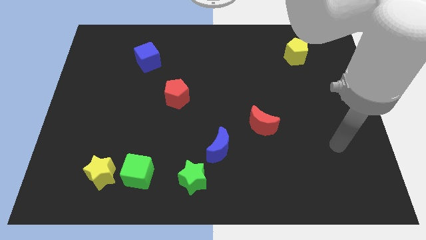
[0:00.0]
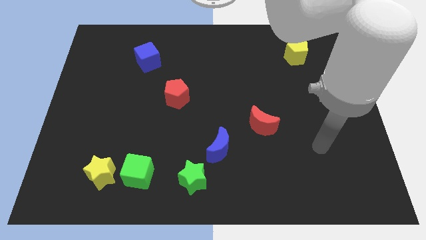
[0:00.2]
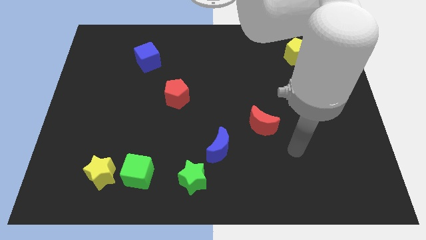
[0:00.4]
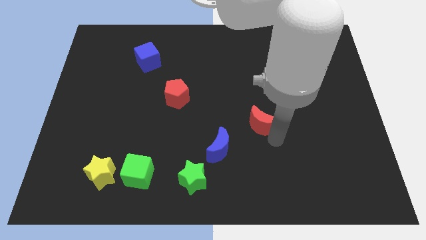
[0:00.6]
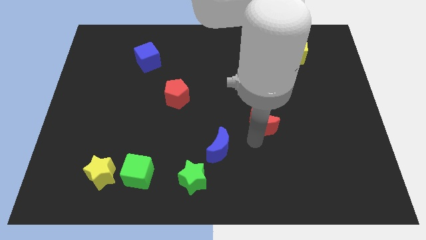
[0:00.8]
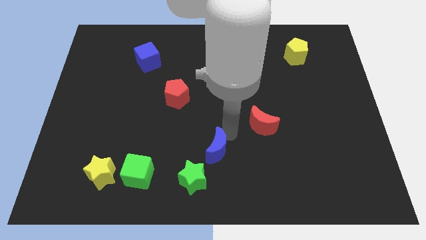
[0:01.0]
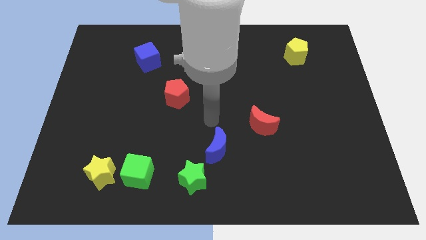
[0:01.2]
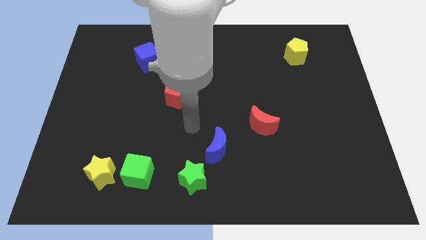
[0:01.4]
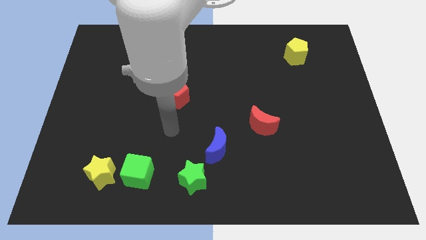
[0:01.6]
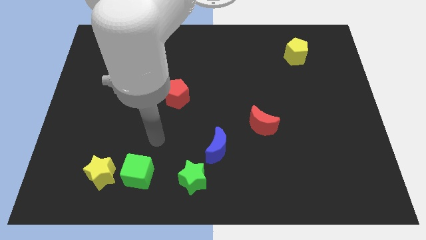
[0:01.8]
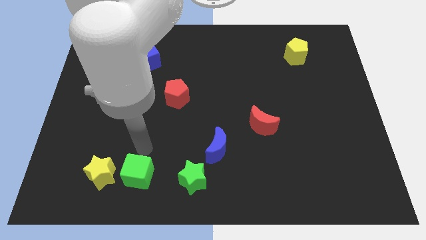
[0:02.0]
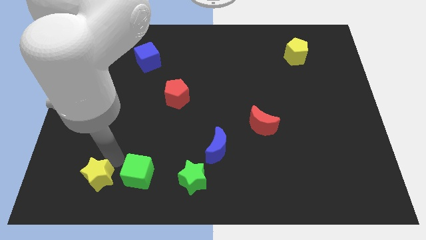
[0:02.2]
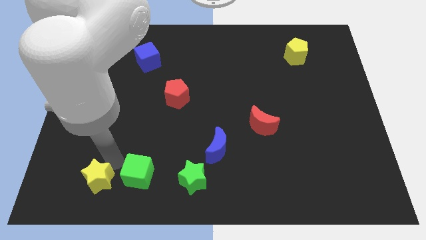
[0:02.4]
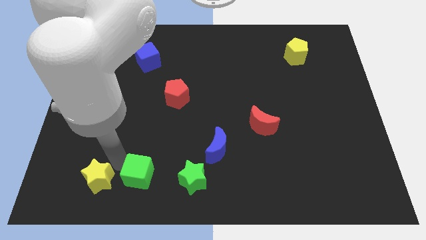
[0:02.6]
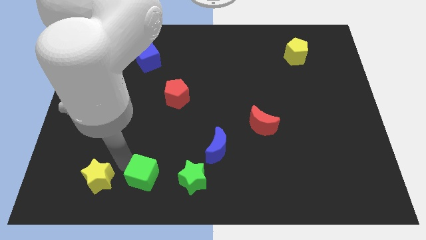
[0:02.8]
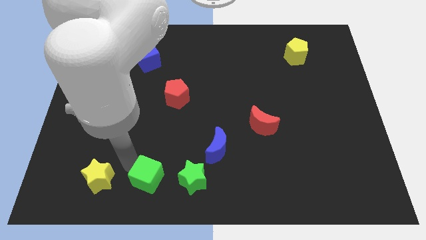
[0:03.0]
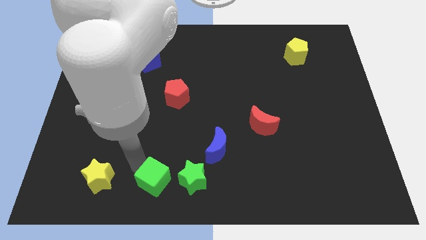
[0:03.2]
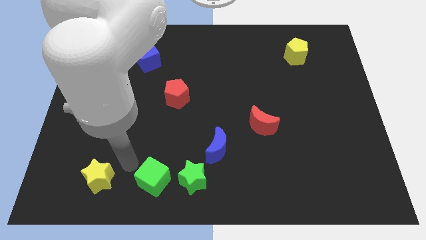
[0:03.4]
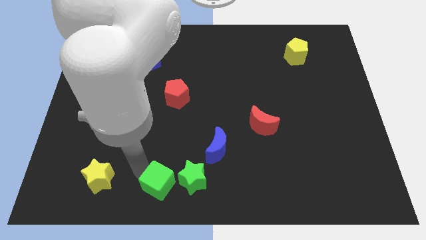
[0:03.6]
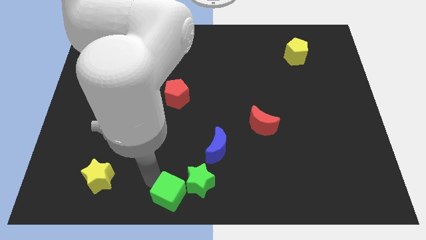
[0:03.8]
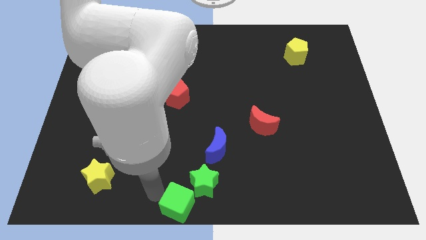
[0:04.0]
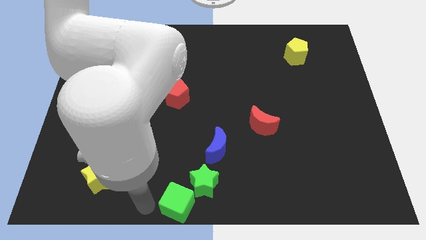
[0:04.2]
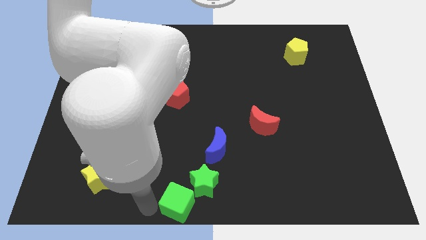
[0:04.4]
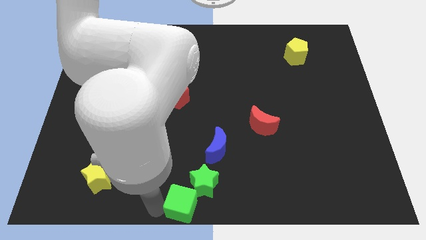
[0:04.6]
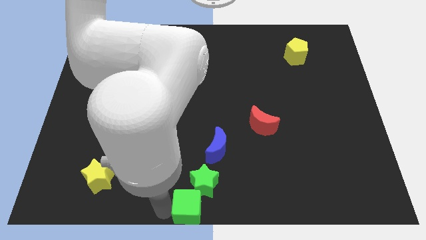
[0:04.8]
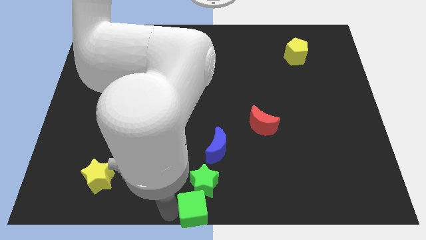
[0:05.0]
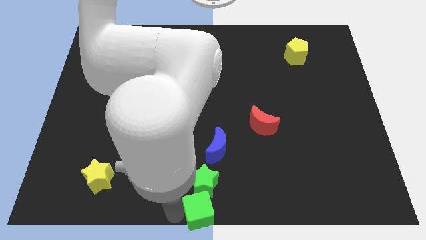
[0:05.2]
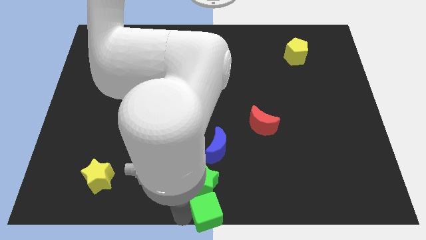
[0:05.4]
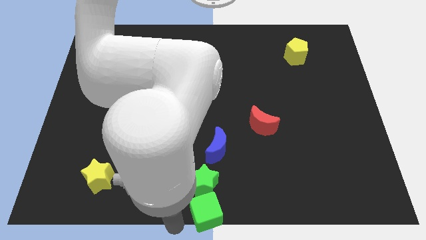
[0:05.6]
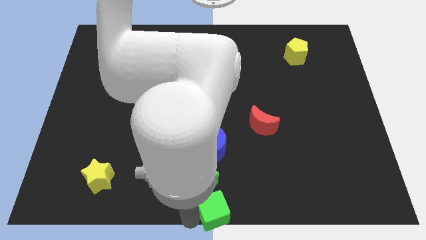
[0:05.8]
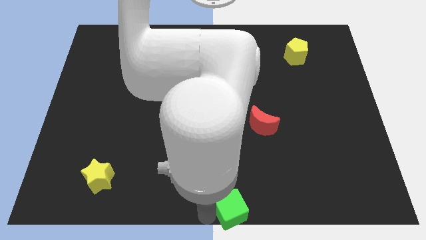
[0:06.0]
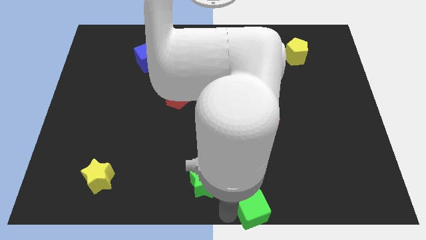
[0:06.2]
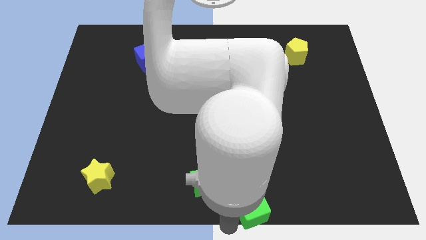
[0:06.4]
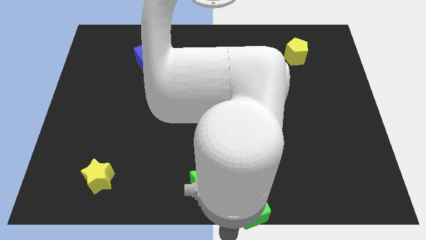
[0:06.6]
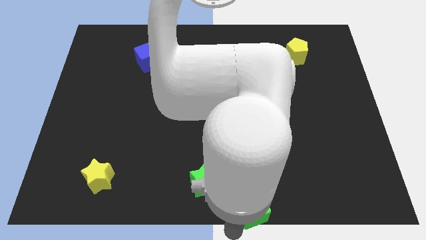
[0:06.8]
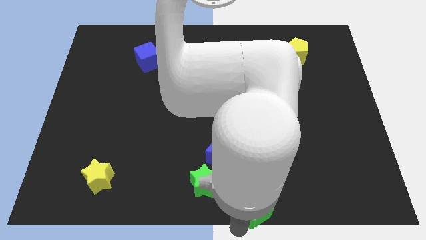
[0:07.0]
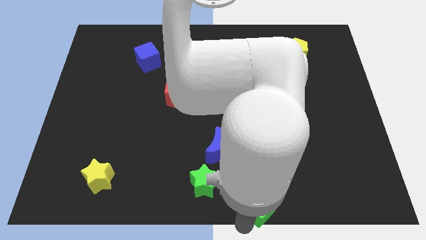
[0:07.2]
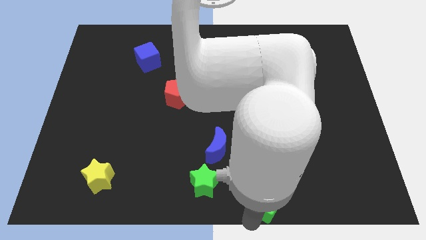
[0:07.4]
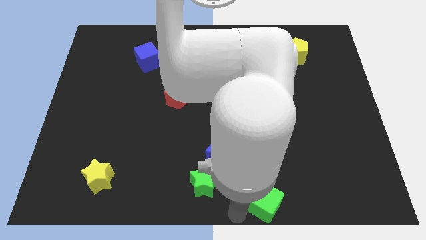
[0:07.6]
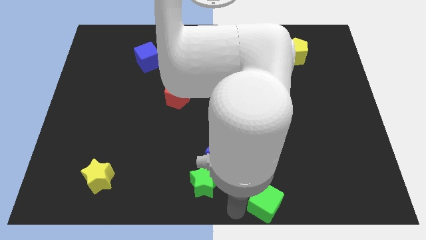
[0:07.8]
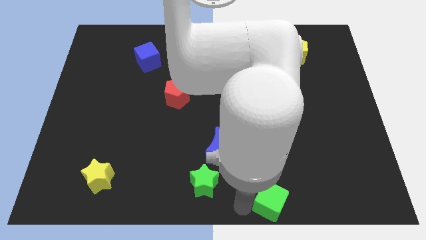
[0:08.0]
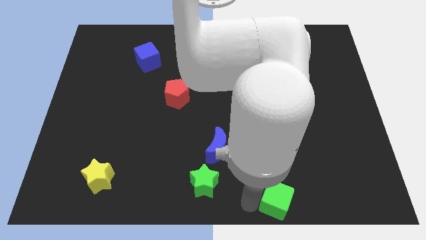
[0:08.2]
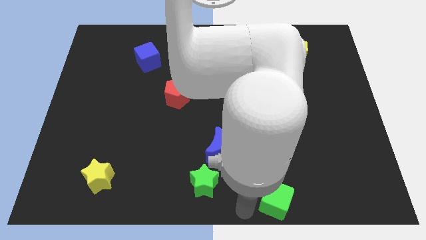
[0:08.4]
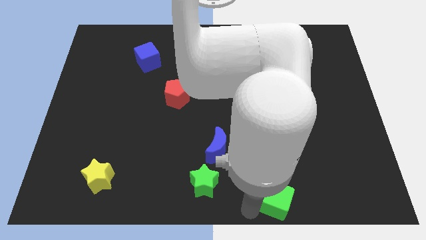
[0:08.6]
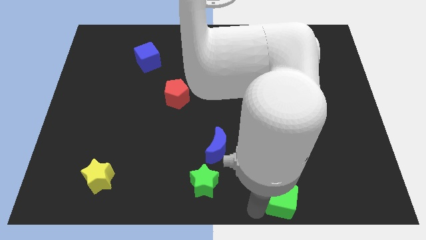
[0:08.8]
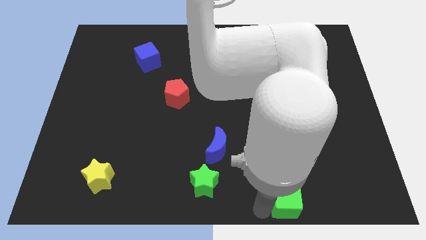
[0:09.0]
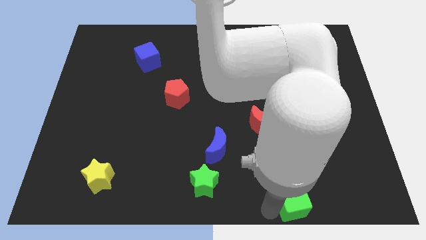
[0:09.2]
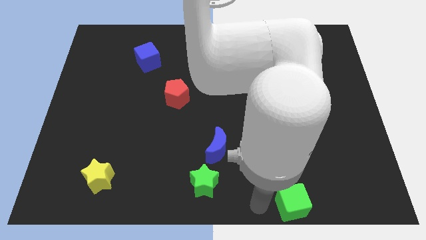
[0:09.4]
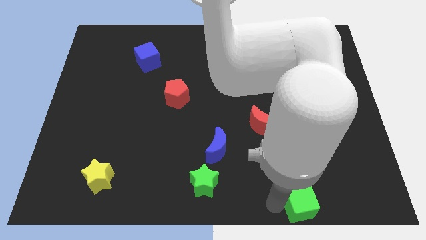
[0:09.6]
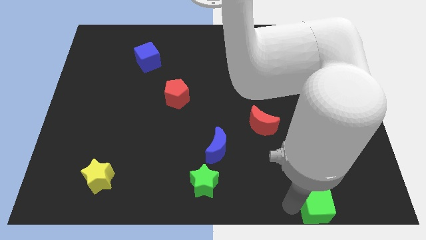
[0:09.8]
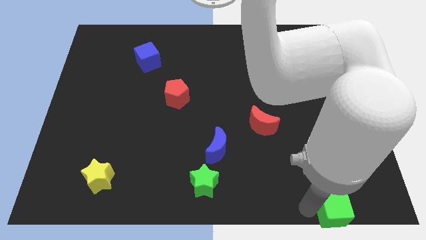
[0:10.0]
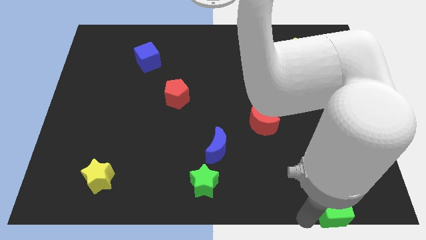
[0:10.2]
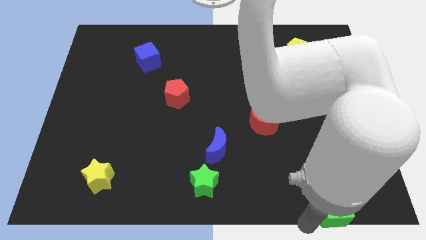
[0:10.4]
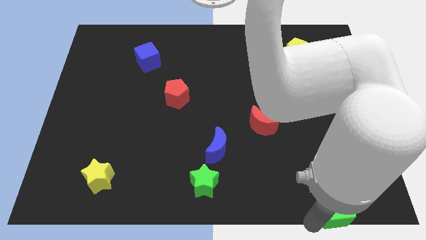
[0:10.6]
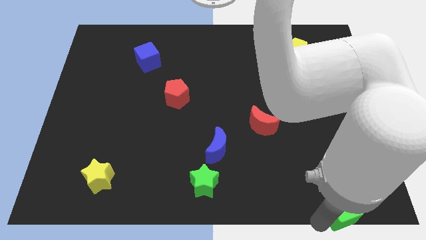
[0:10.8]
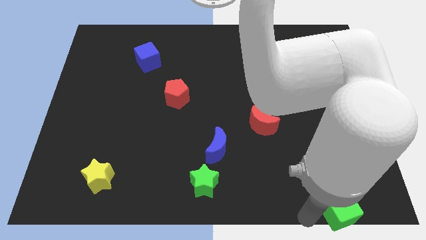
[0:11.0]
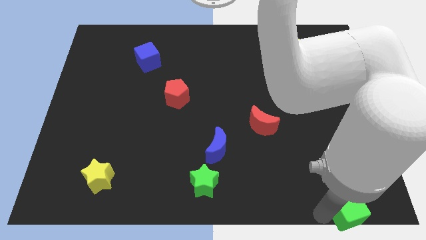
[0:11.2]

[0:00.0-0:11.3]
slide the green cube to the lower right corner
